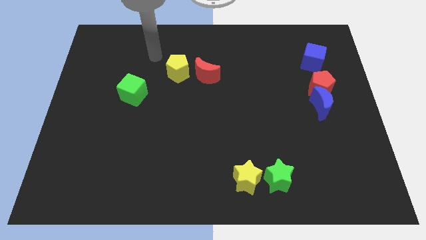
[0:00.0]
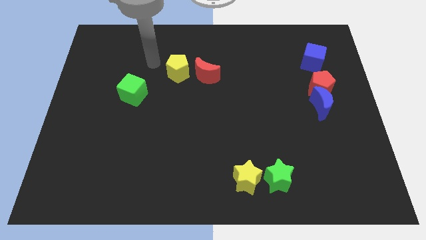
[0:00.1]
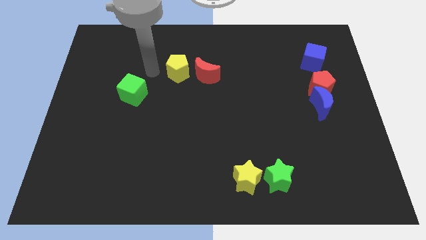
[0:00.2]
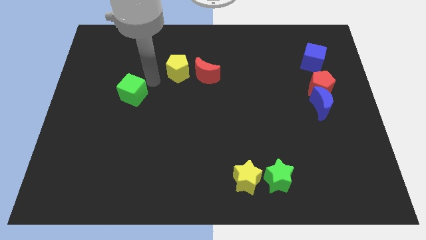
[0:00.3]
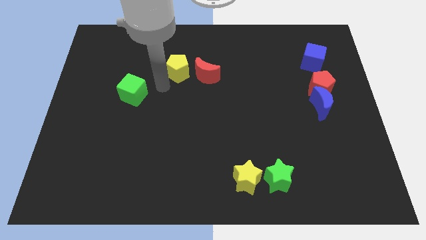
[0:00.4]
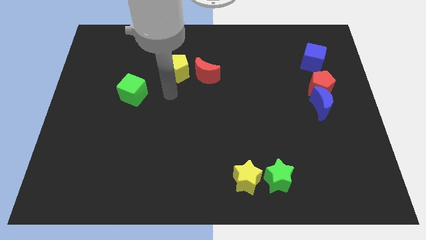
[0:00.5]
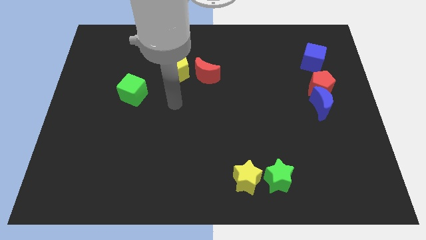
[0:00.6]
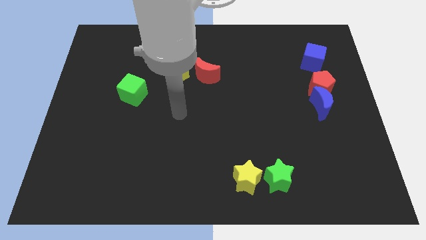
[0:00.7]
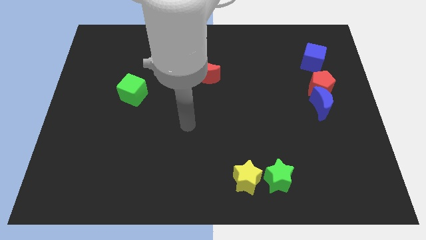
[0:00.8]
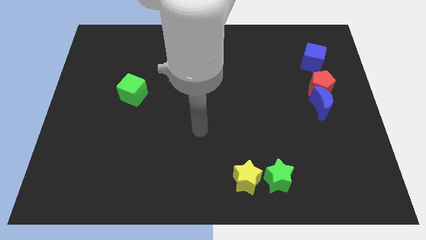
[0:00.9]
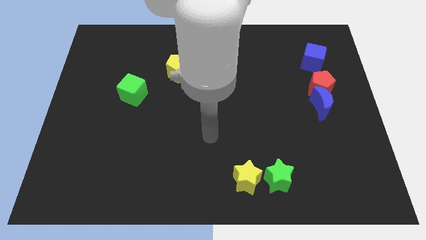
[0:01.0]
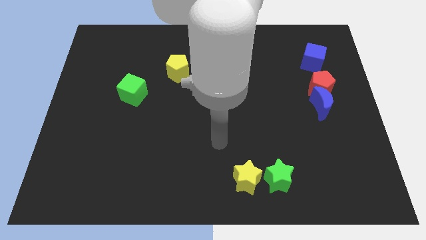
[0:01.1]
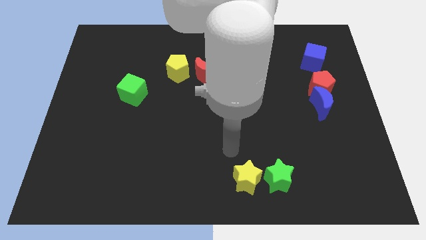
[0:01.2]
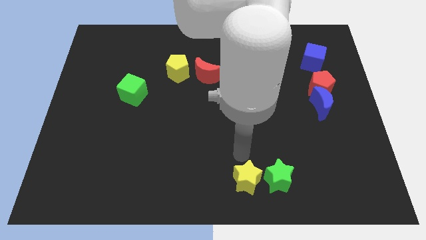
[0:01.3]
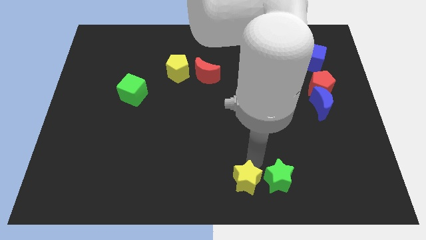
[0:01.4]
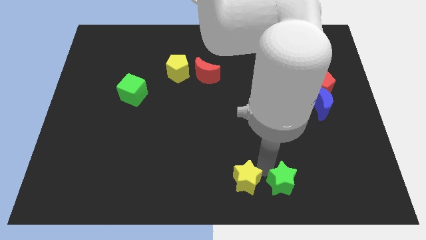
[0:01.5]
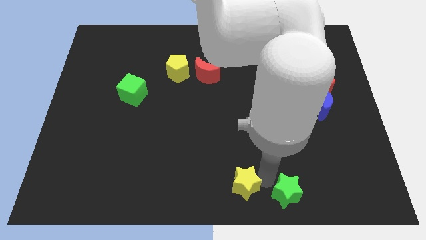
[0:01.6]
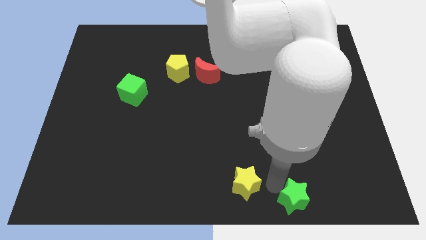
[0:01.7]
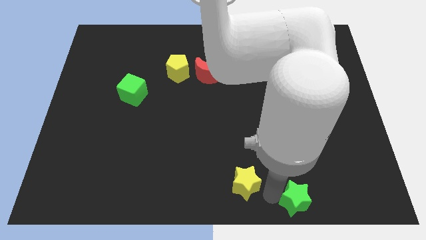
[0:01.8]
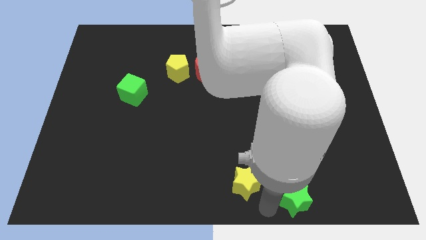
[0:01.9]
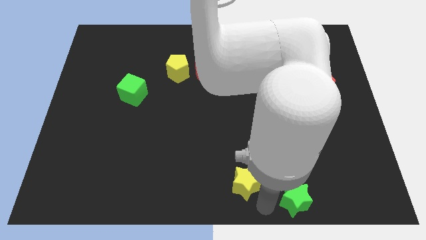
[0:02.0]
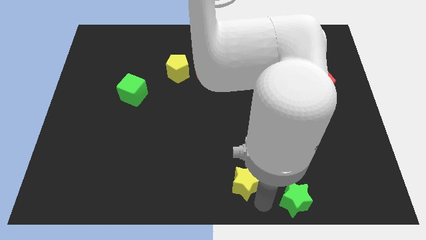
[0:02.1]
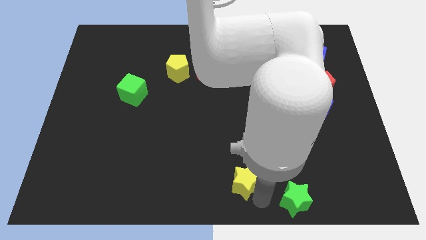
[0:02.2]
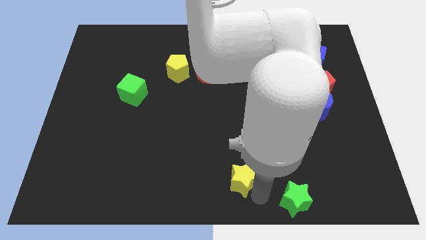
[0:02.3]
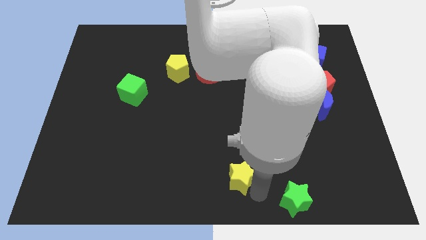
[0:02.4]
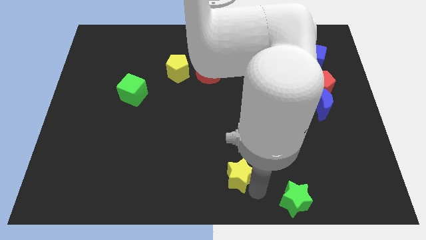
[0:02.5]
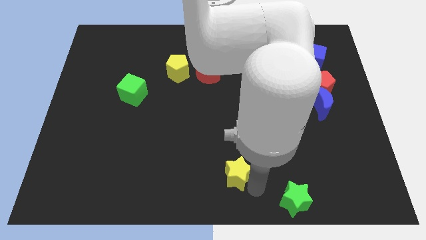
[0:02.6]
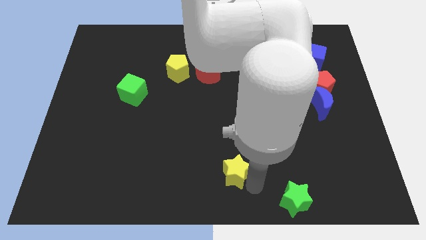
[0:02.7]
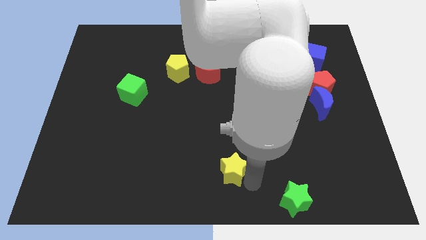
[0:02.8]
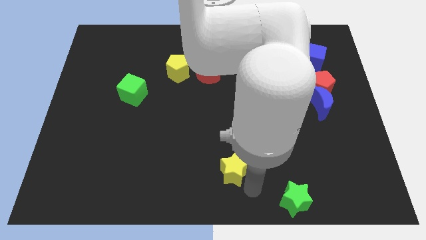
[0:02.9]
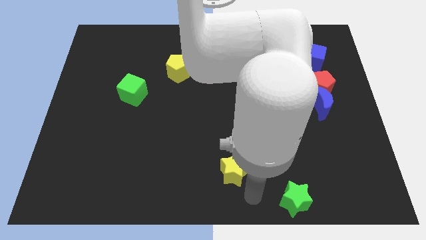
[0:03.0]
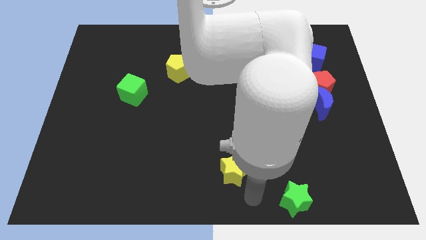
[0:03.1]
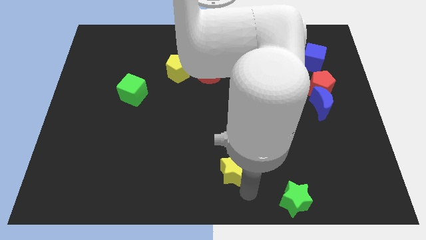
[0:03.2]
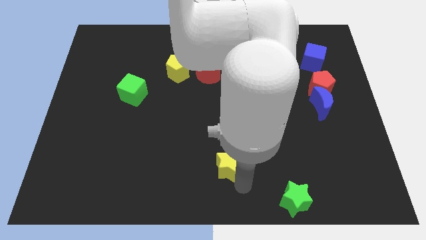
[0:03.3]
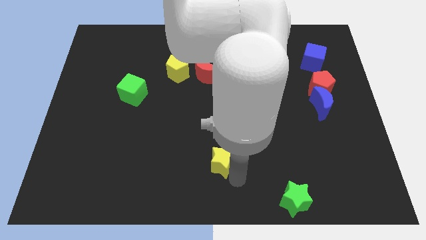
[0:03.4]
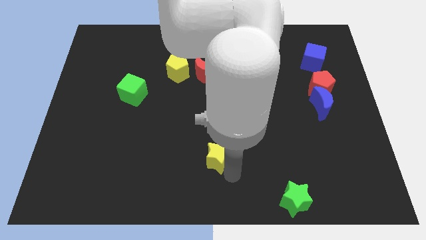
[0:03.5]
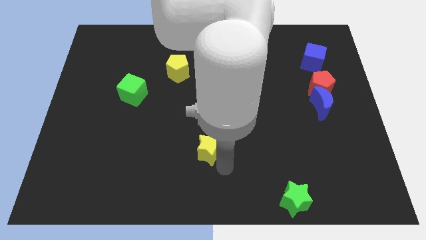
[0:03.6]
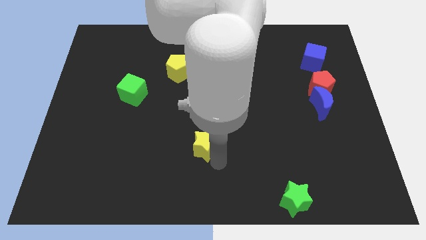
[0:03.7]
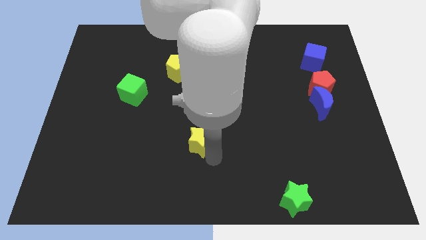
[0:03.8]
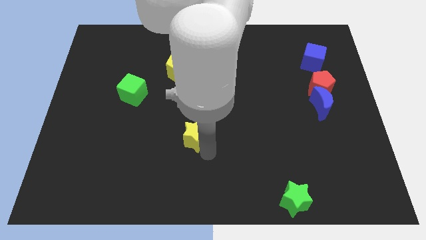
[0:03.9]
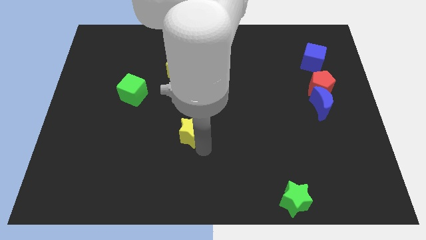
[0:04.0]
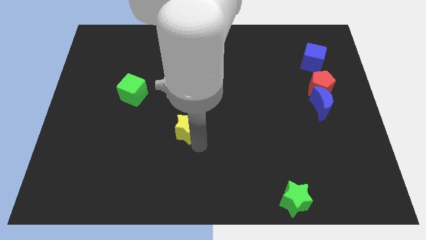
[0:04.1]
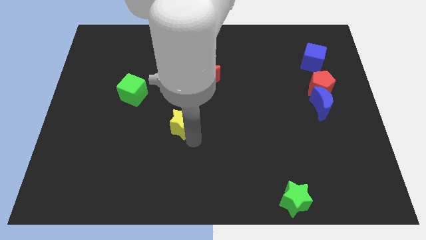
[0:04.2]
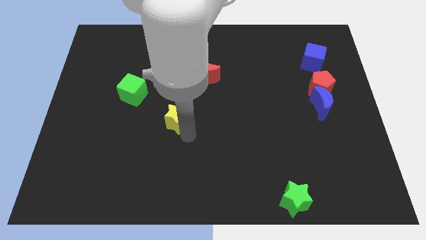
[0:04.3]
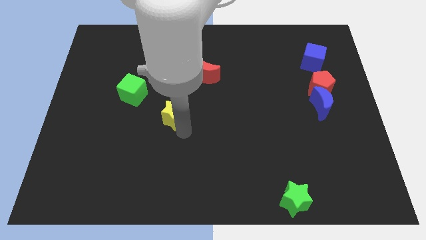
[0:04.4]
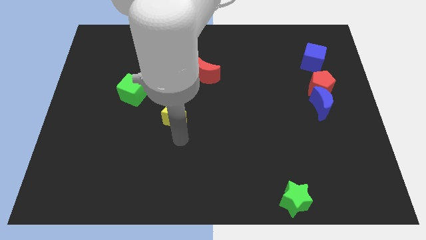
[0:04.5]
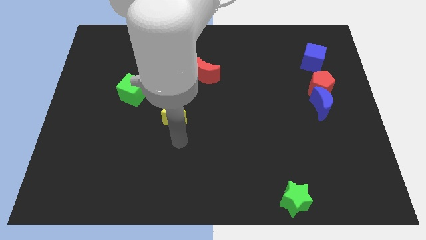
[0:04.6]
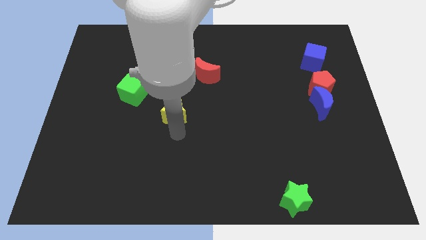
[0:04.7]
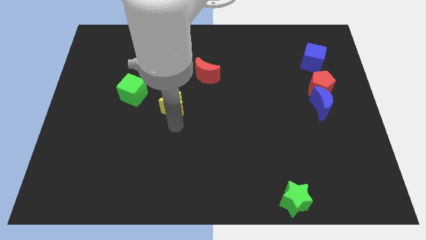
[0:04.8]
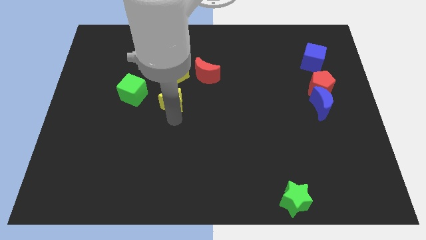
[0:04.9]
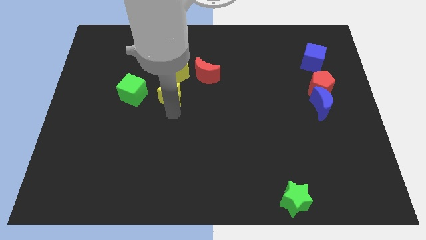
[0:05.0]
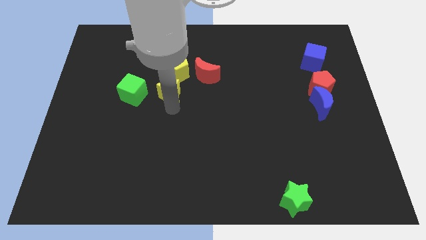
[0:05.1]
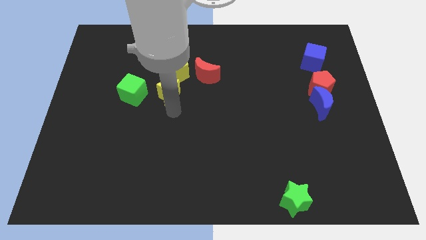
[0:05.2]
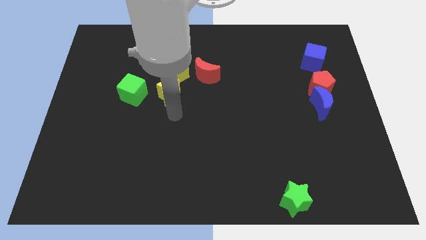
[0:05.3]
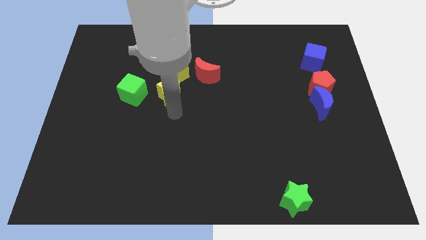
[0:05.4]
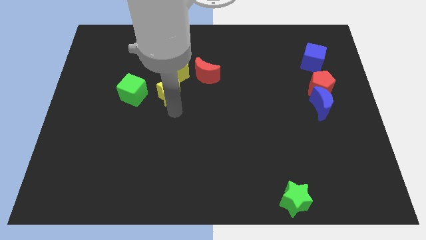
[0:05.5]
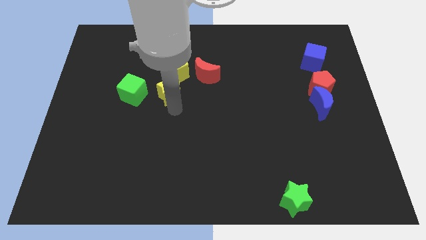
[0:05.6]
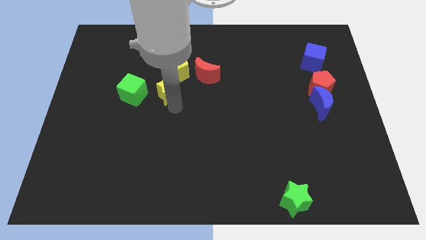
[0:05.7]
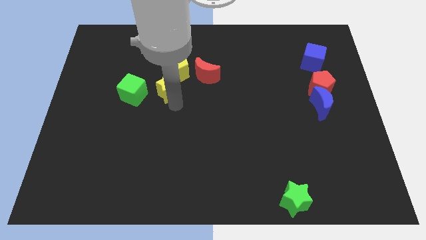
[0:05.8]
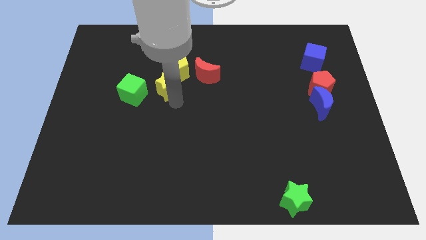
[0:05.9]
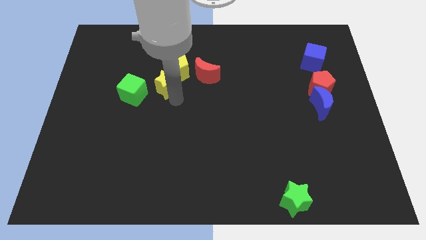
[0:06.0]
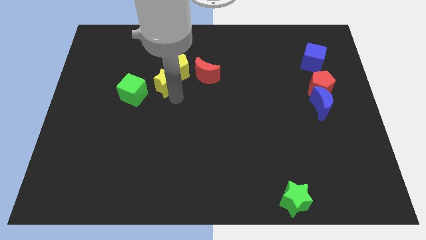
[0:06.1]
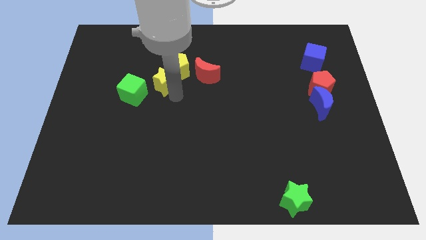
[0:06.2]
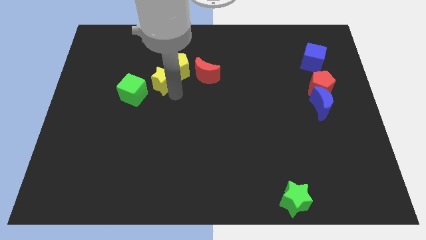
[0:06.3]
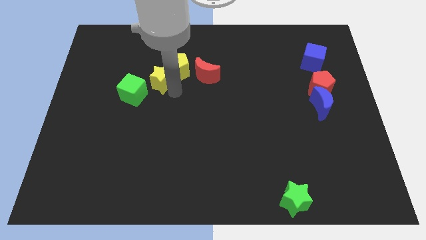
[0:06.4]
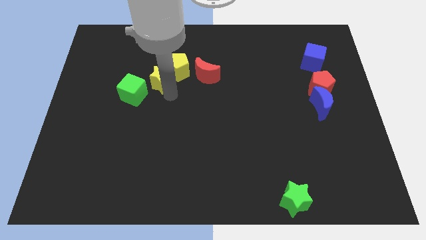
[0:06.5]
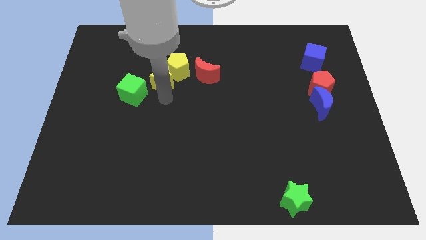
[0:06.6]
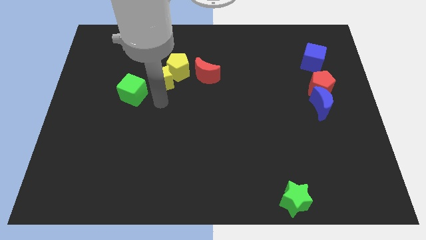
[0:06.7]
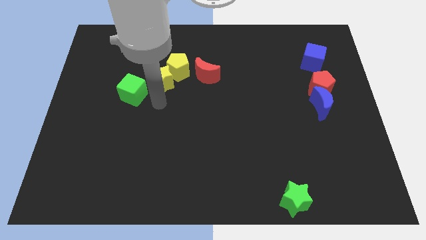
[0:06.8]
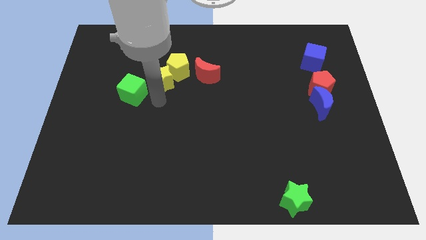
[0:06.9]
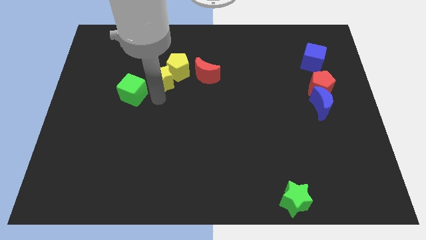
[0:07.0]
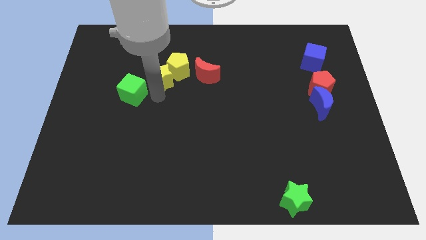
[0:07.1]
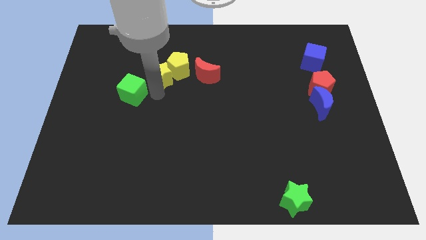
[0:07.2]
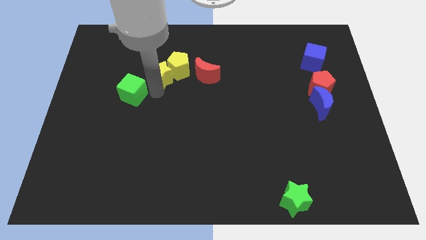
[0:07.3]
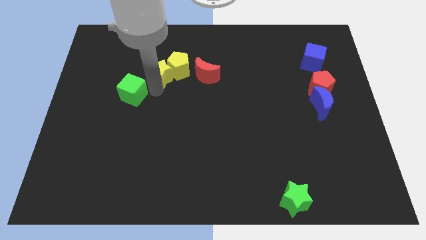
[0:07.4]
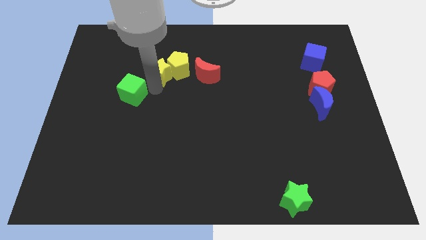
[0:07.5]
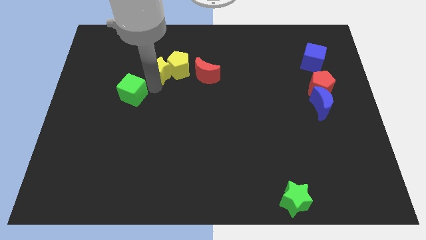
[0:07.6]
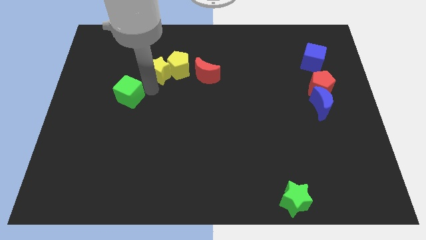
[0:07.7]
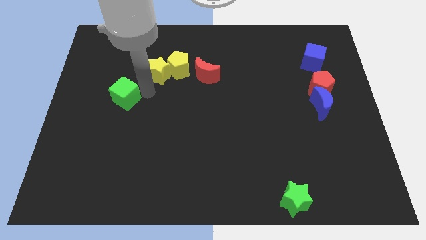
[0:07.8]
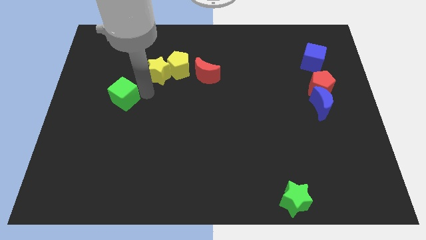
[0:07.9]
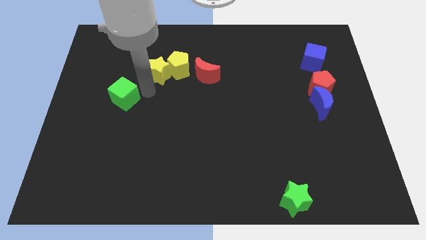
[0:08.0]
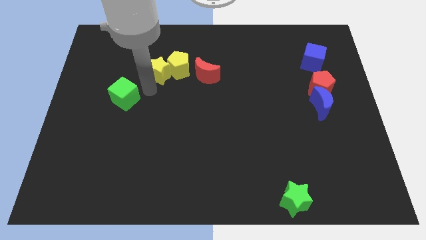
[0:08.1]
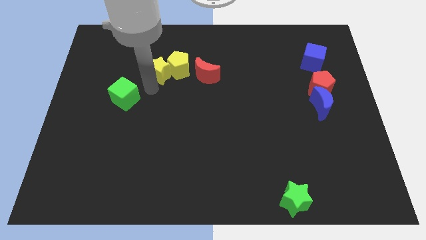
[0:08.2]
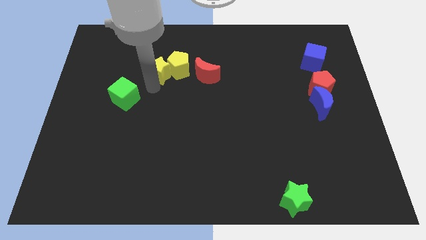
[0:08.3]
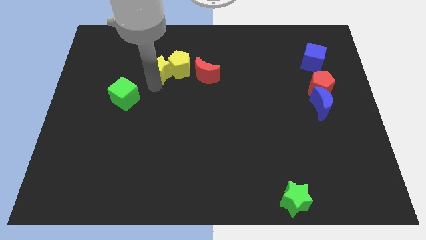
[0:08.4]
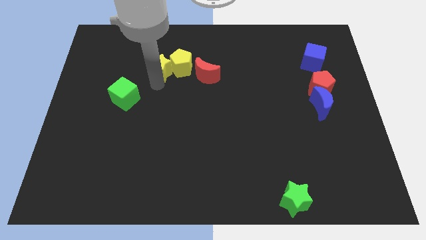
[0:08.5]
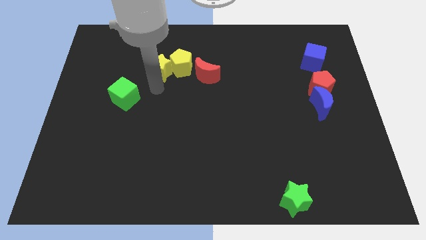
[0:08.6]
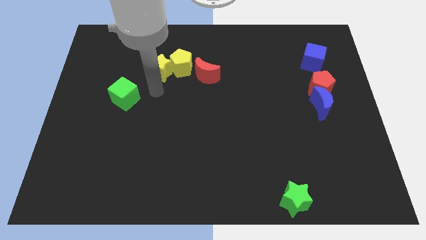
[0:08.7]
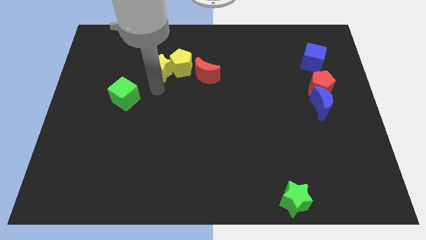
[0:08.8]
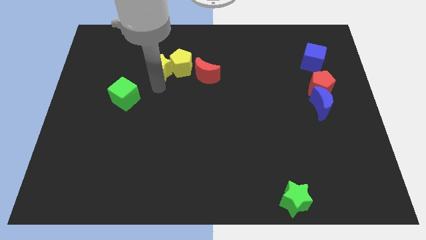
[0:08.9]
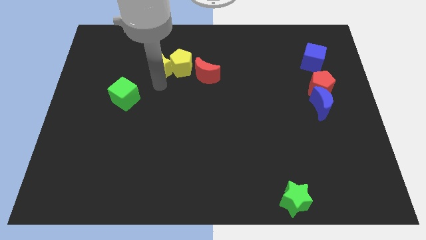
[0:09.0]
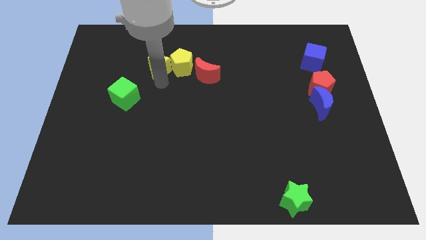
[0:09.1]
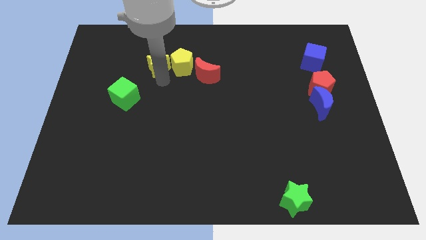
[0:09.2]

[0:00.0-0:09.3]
push the yellow star to the top left of the yellow pentagon
